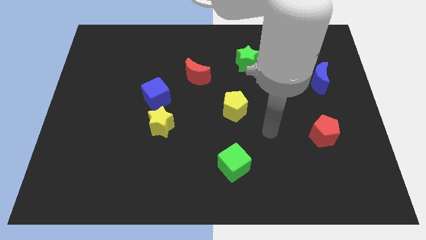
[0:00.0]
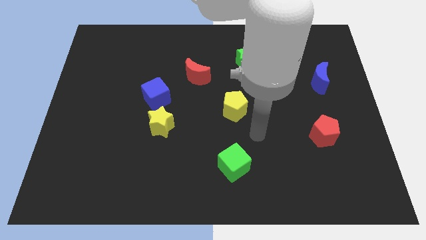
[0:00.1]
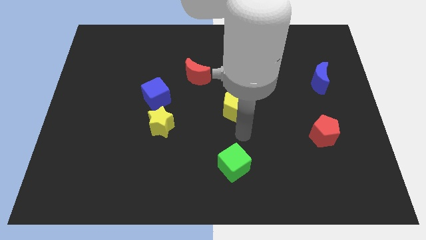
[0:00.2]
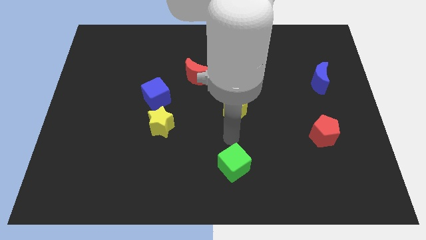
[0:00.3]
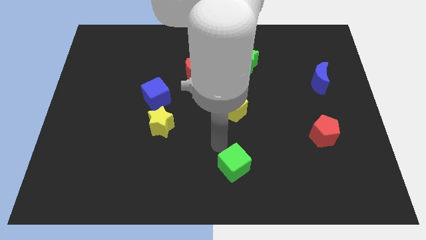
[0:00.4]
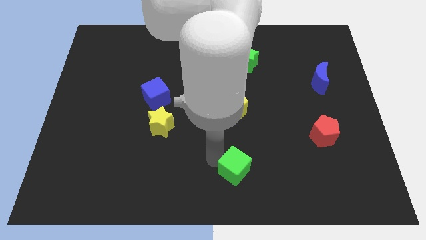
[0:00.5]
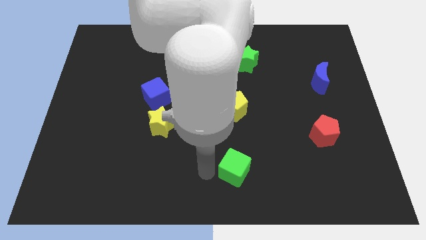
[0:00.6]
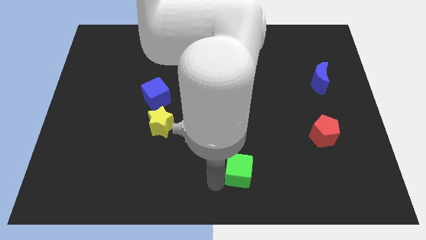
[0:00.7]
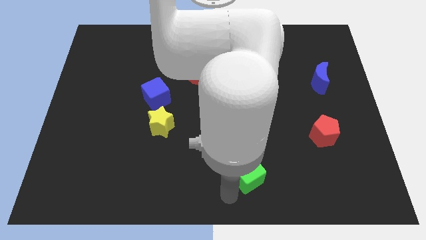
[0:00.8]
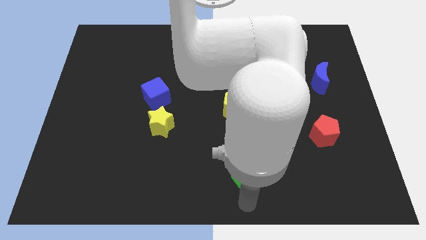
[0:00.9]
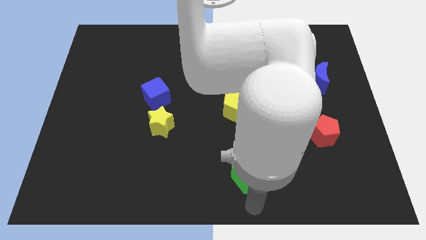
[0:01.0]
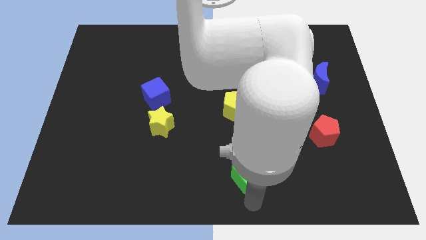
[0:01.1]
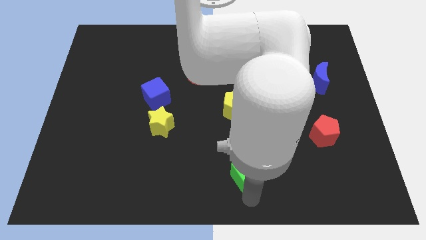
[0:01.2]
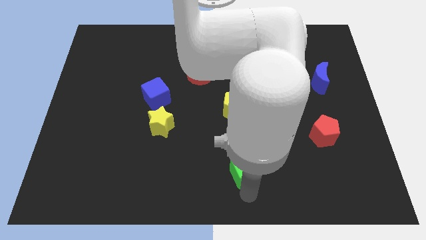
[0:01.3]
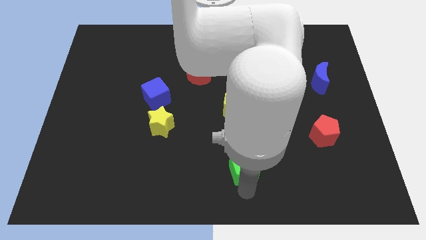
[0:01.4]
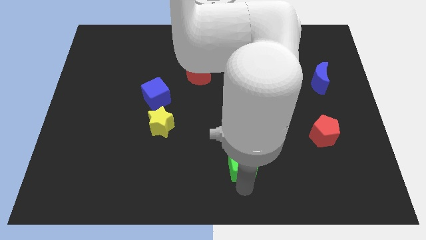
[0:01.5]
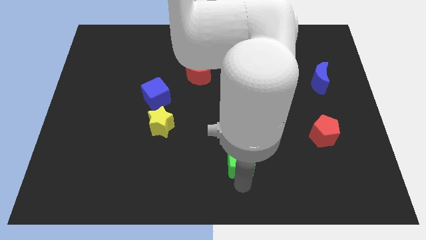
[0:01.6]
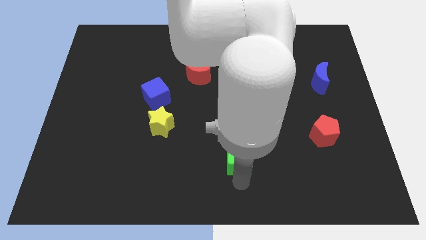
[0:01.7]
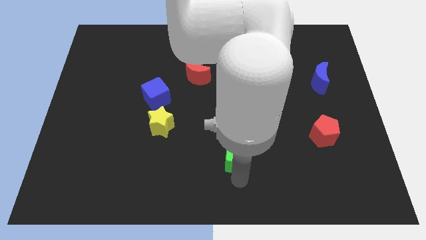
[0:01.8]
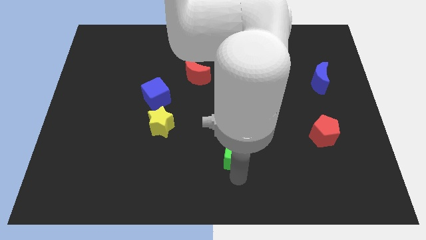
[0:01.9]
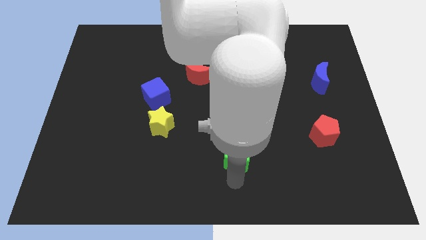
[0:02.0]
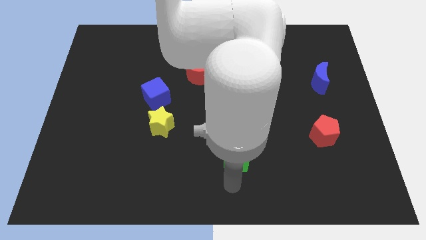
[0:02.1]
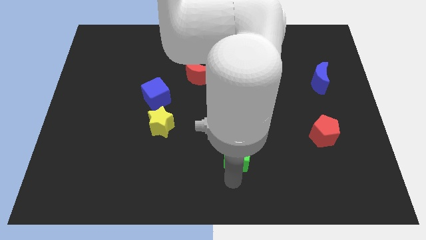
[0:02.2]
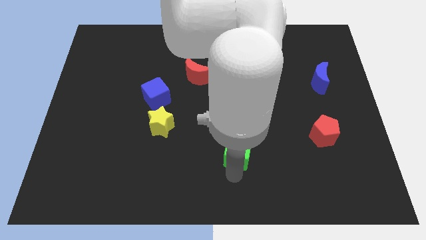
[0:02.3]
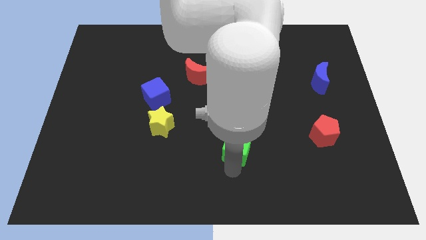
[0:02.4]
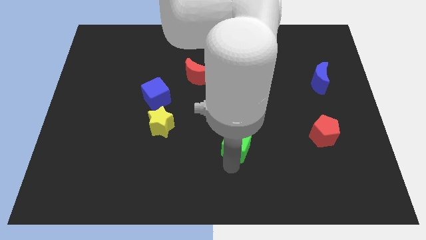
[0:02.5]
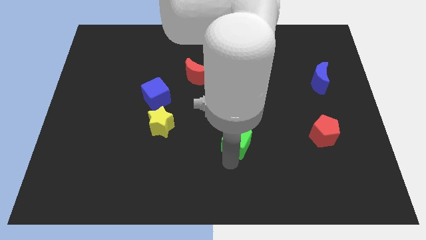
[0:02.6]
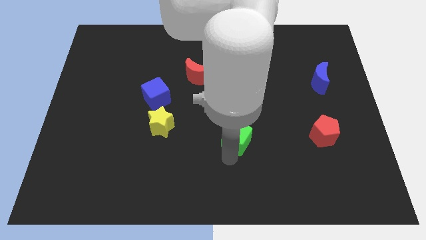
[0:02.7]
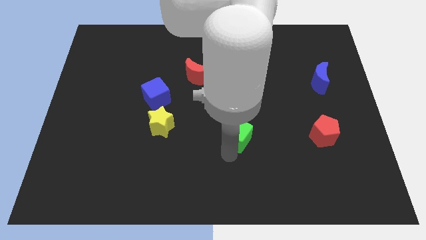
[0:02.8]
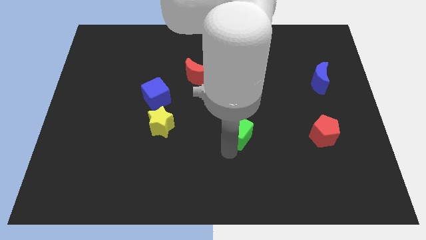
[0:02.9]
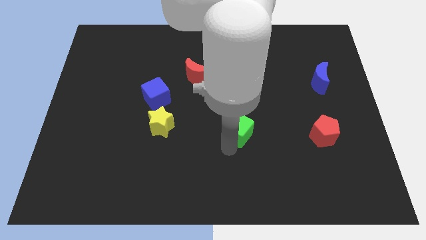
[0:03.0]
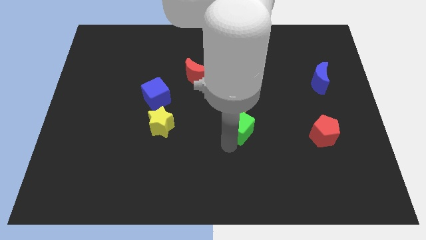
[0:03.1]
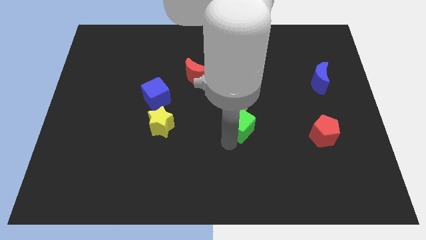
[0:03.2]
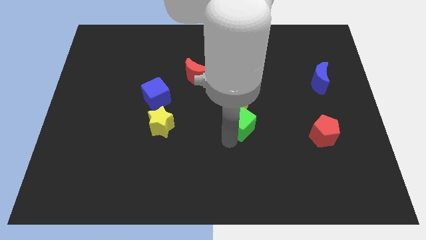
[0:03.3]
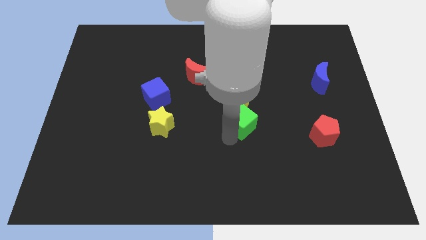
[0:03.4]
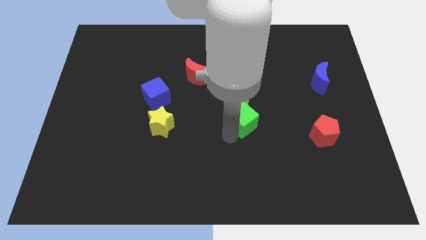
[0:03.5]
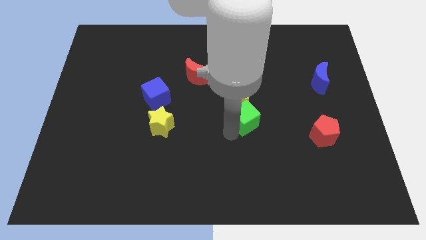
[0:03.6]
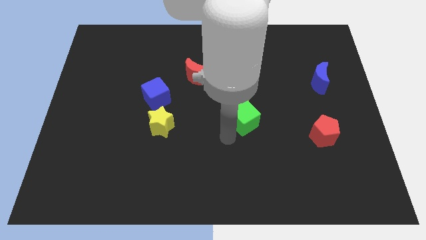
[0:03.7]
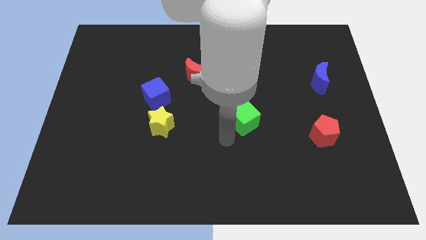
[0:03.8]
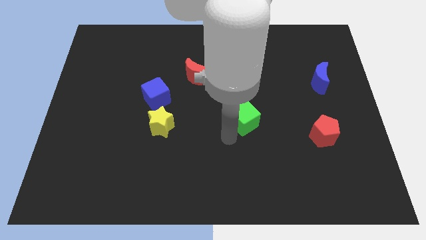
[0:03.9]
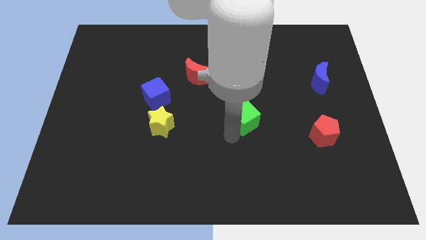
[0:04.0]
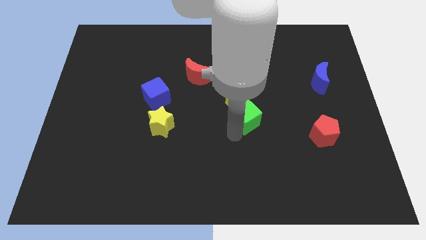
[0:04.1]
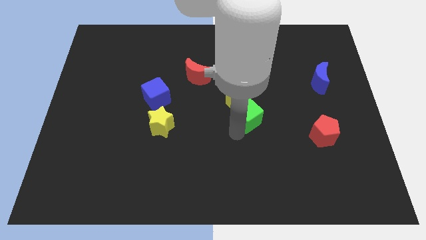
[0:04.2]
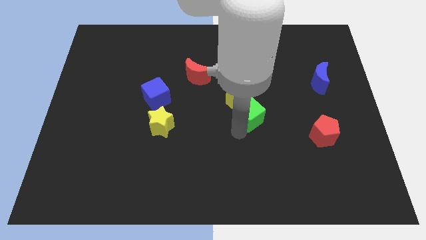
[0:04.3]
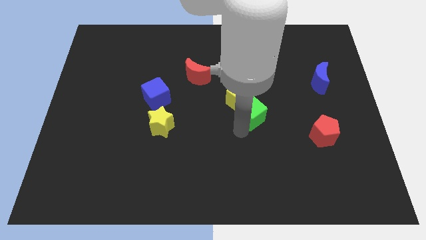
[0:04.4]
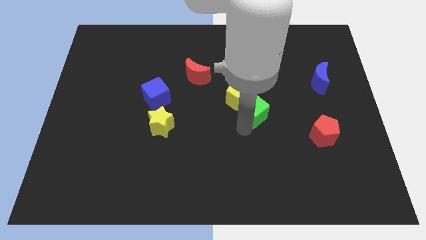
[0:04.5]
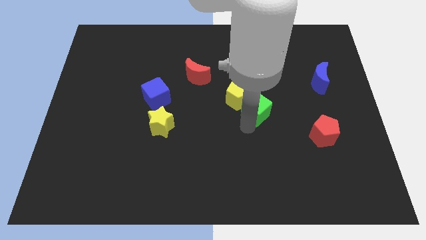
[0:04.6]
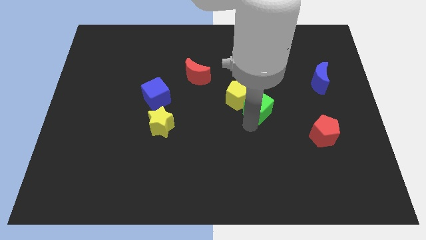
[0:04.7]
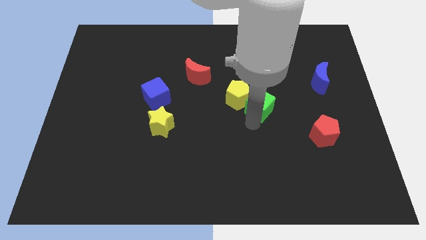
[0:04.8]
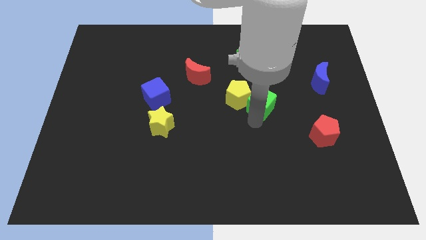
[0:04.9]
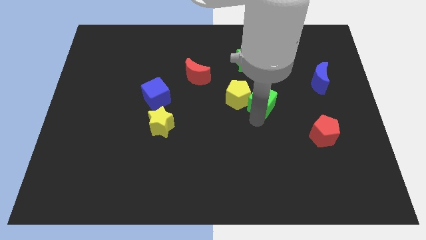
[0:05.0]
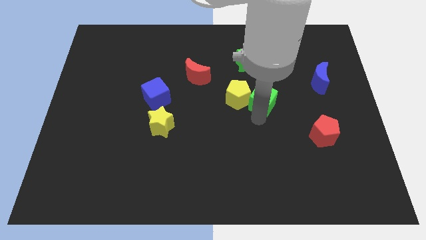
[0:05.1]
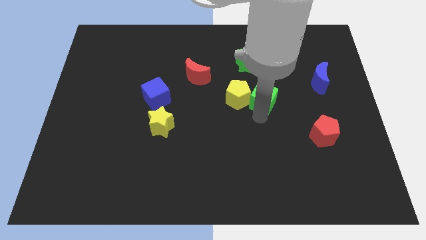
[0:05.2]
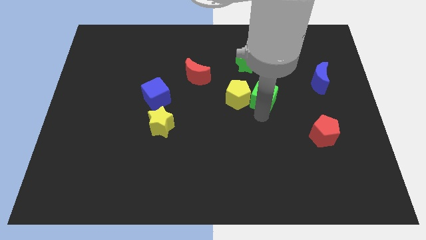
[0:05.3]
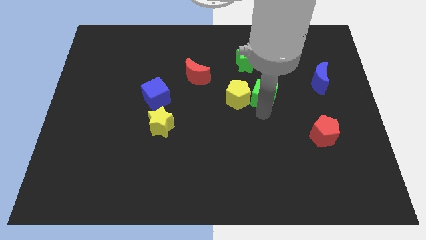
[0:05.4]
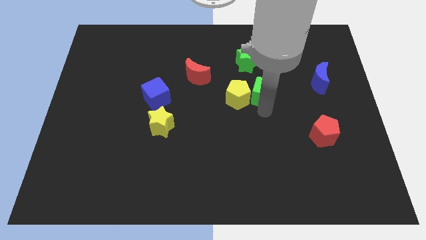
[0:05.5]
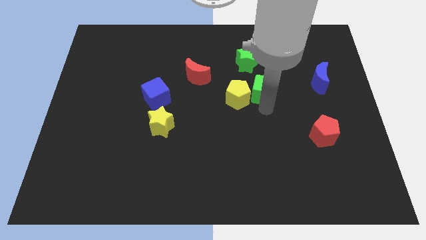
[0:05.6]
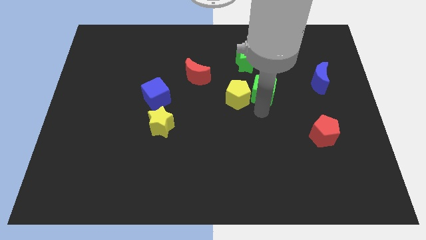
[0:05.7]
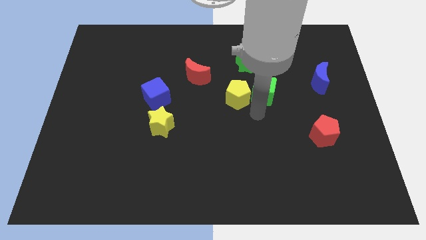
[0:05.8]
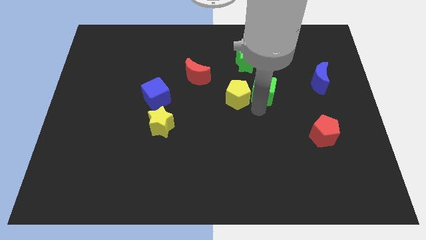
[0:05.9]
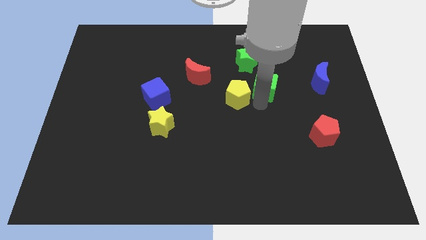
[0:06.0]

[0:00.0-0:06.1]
push the green cube to the bottom right side of the green star

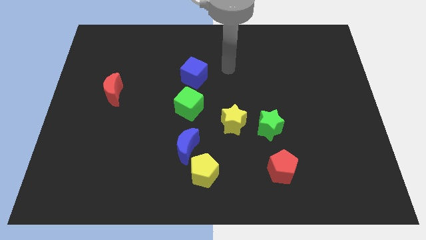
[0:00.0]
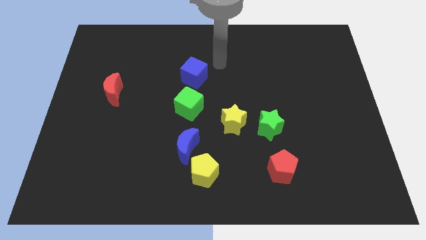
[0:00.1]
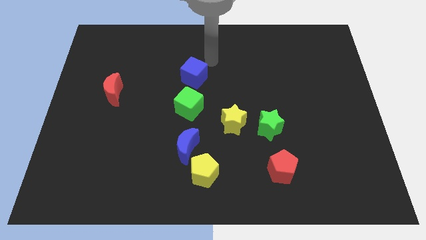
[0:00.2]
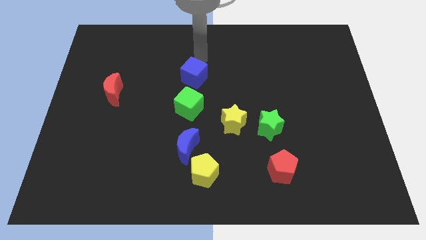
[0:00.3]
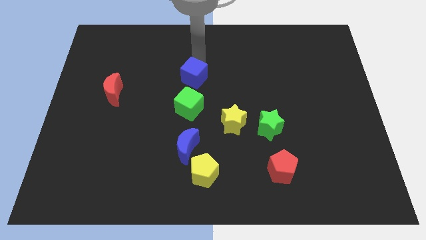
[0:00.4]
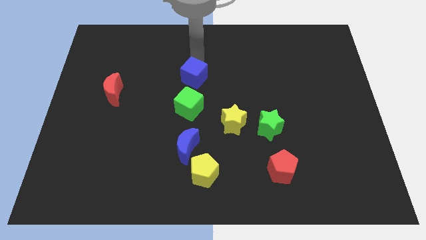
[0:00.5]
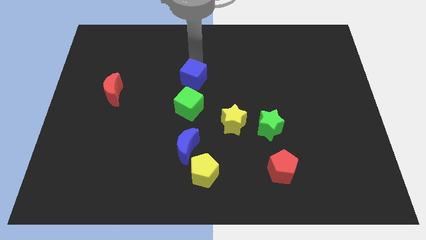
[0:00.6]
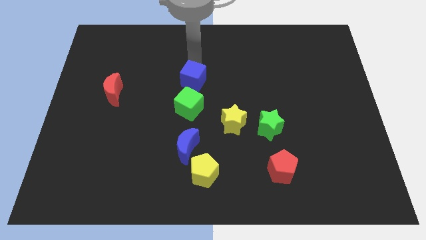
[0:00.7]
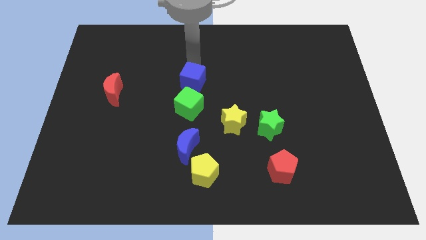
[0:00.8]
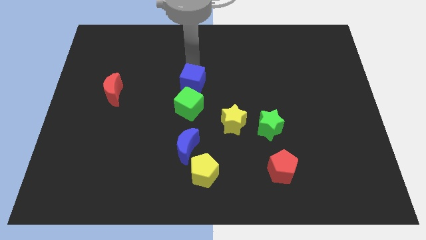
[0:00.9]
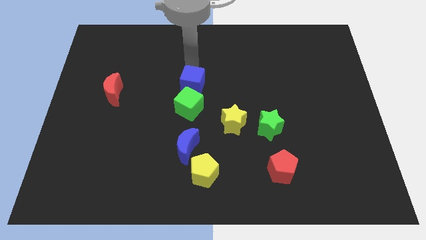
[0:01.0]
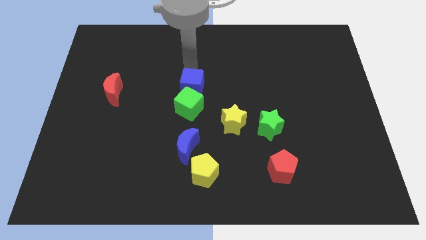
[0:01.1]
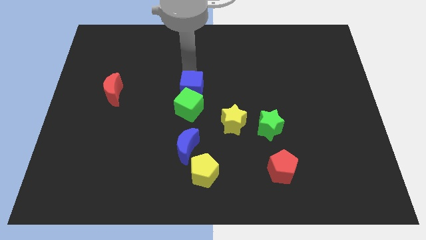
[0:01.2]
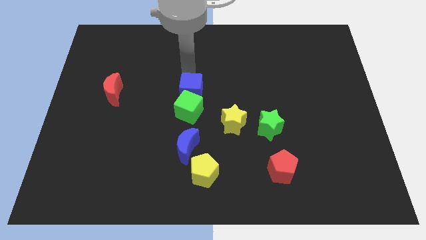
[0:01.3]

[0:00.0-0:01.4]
slide the blue cube above the blue moon
